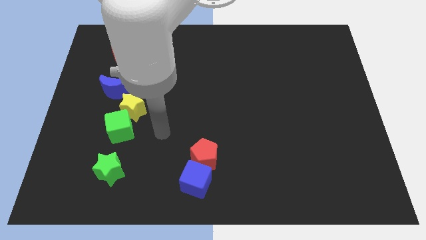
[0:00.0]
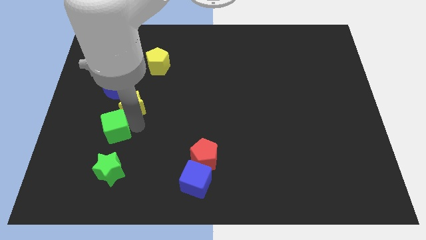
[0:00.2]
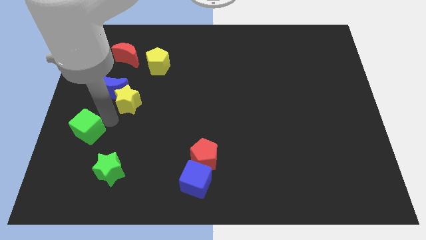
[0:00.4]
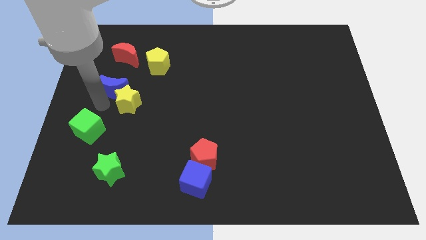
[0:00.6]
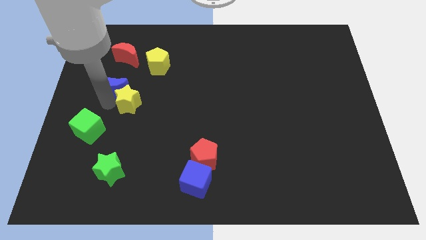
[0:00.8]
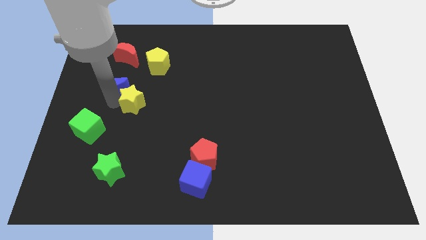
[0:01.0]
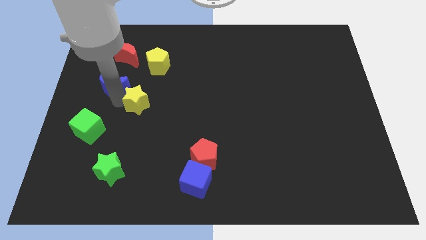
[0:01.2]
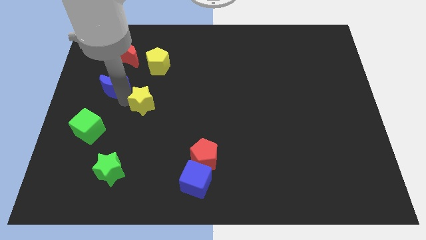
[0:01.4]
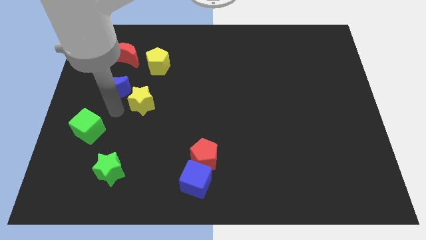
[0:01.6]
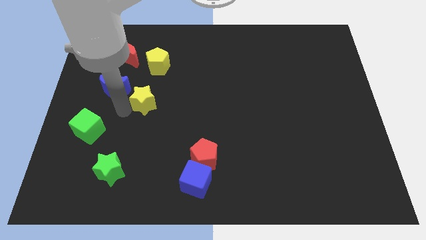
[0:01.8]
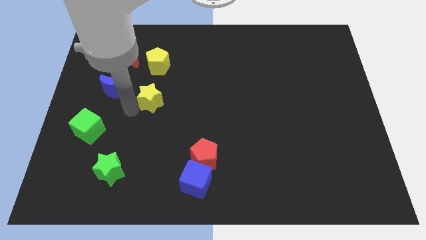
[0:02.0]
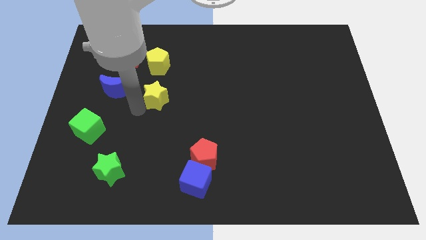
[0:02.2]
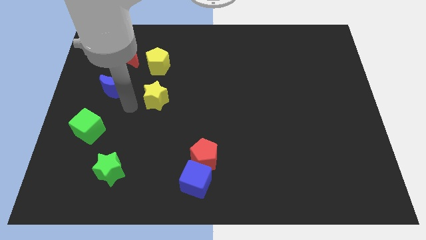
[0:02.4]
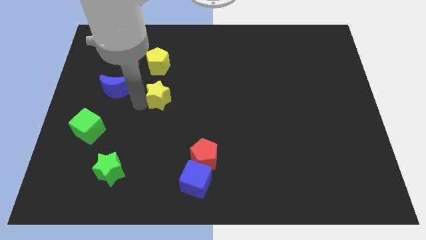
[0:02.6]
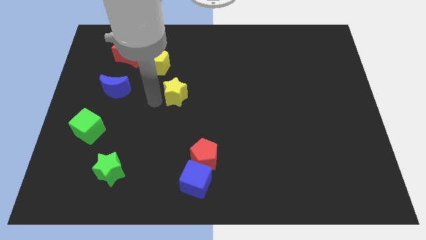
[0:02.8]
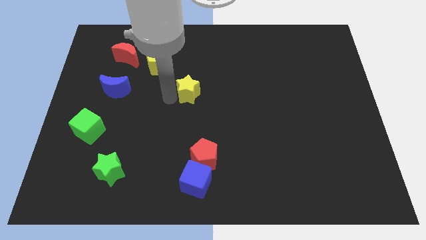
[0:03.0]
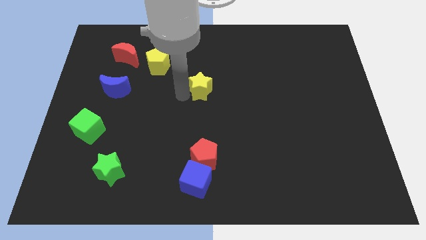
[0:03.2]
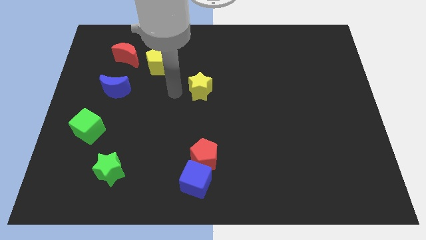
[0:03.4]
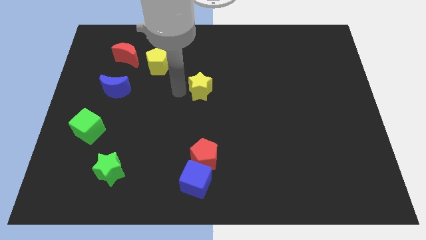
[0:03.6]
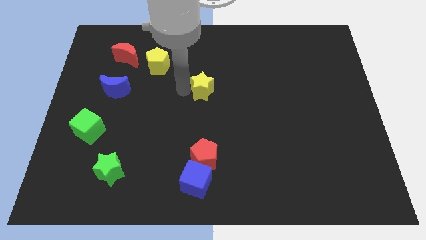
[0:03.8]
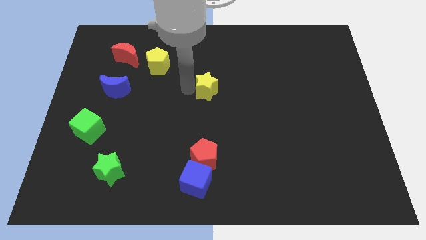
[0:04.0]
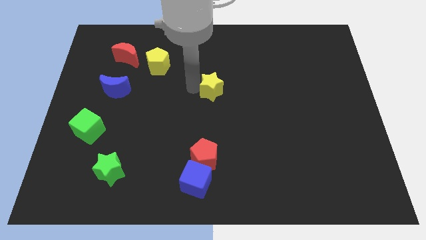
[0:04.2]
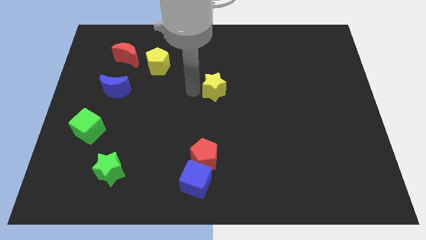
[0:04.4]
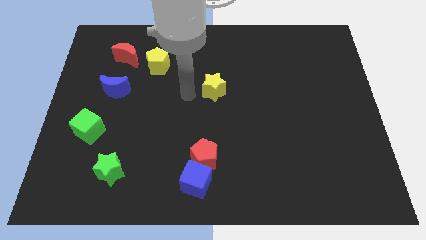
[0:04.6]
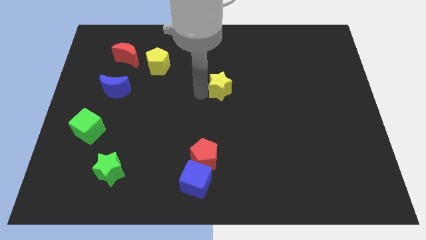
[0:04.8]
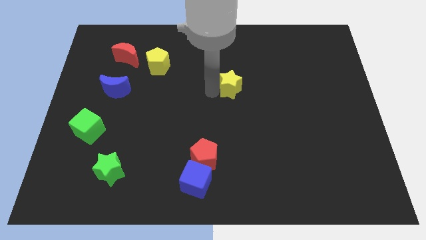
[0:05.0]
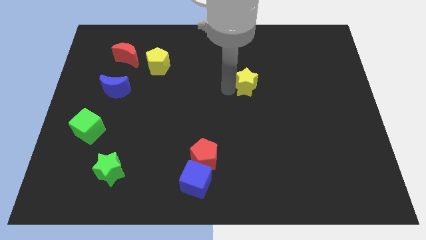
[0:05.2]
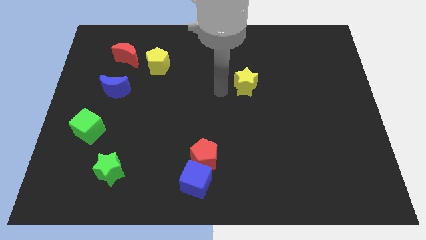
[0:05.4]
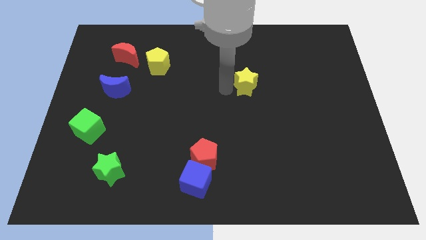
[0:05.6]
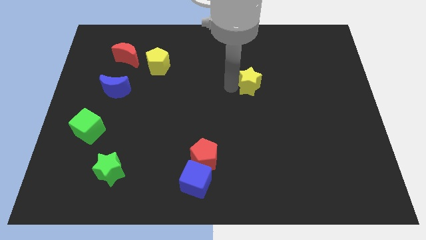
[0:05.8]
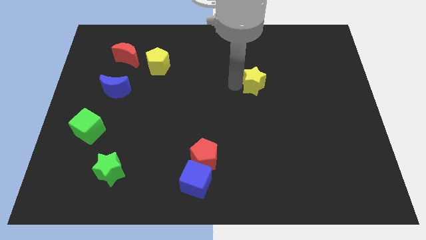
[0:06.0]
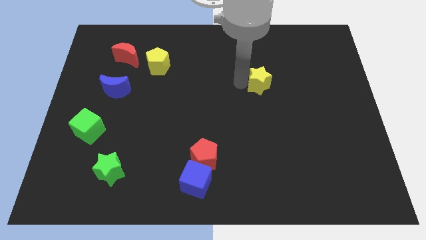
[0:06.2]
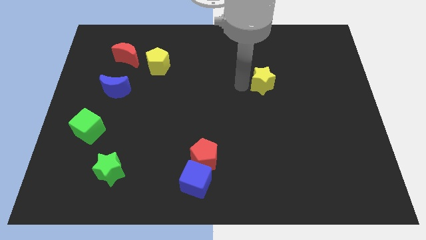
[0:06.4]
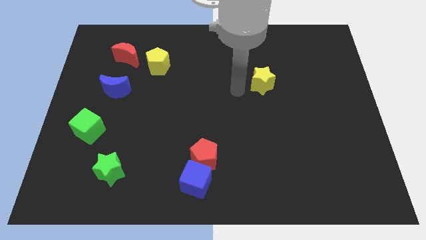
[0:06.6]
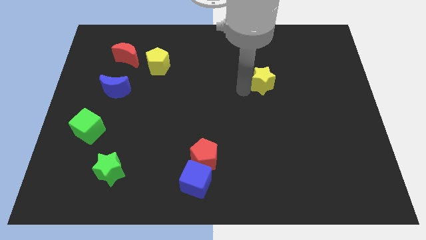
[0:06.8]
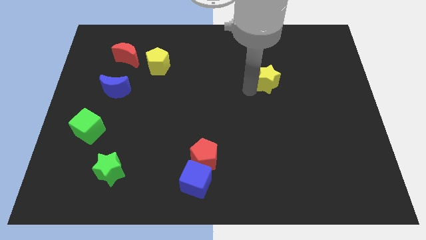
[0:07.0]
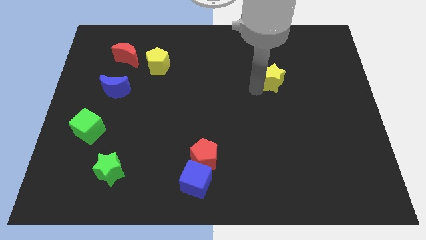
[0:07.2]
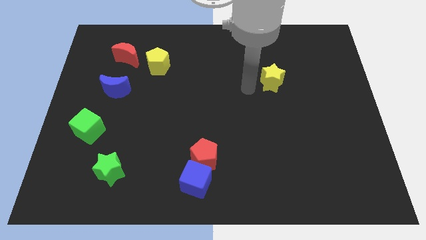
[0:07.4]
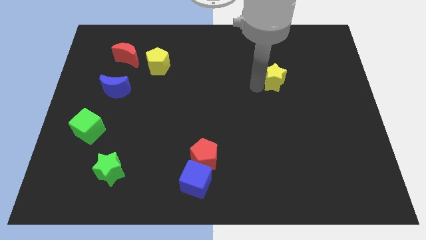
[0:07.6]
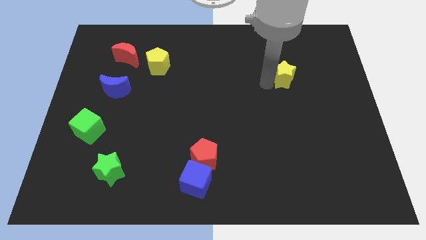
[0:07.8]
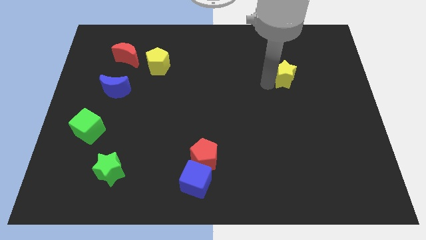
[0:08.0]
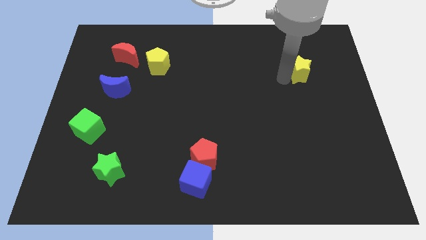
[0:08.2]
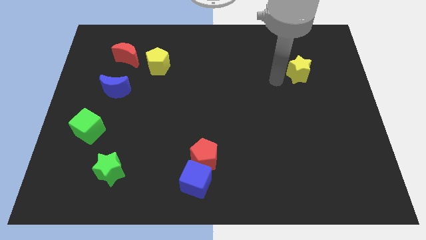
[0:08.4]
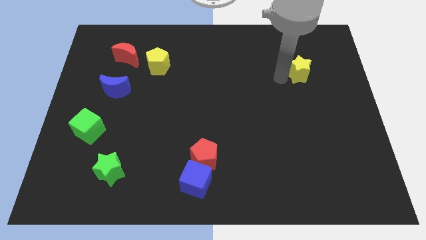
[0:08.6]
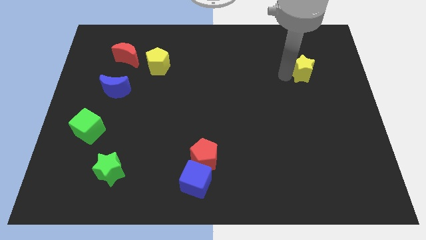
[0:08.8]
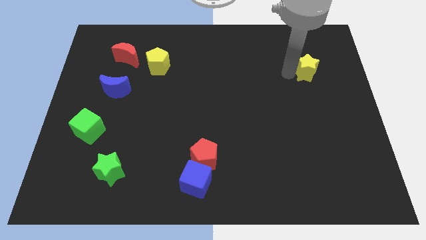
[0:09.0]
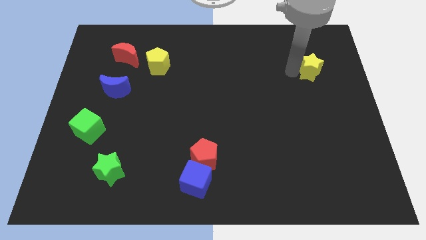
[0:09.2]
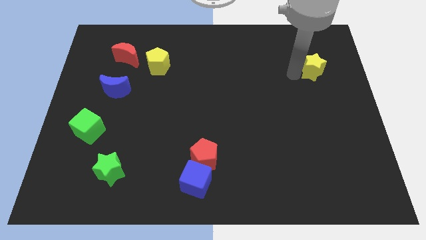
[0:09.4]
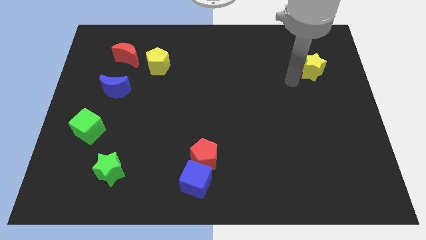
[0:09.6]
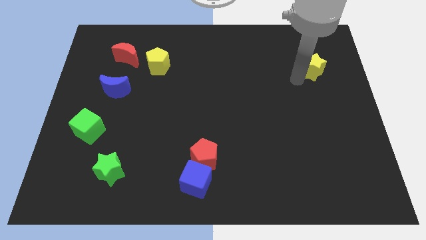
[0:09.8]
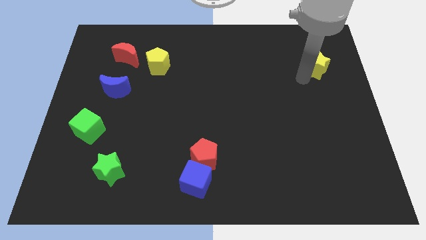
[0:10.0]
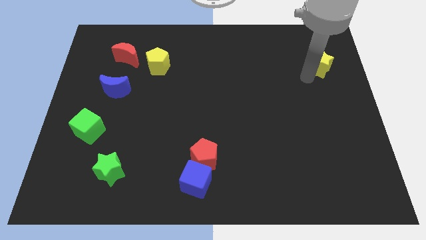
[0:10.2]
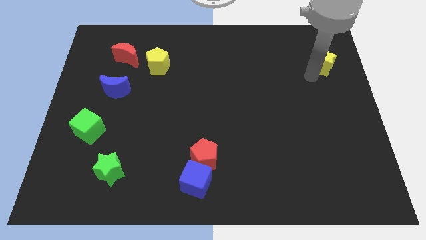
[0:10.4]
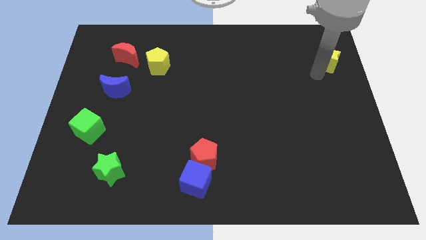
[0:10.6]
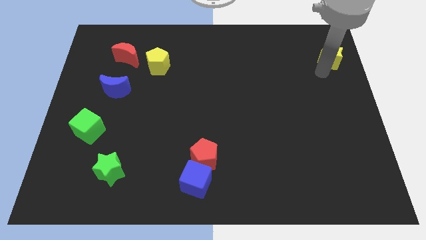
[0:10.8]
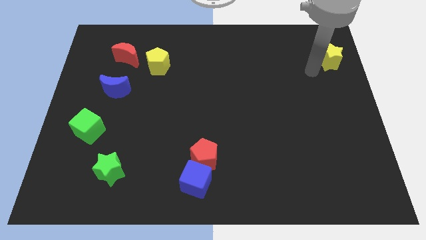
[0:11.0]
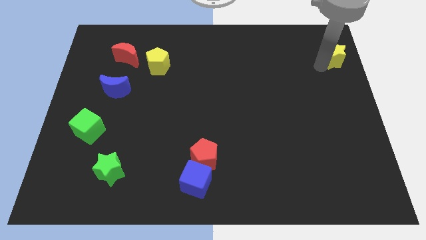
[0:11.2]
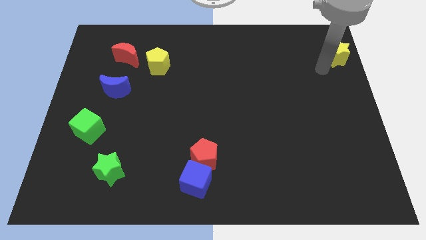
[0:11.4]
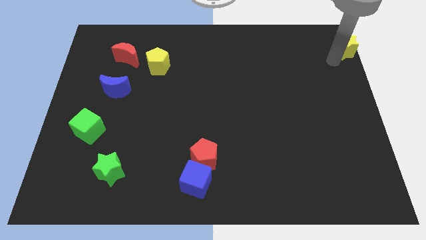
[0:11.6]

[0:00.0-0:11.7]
slide the yellow star to the top right of the board
